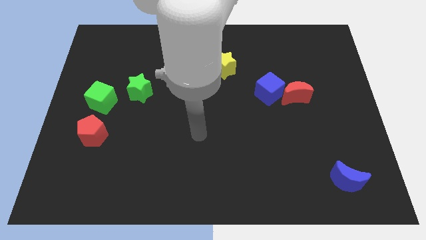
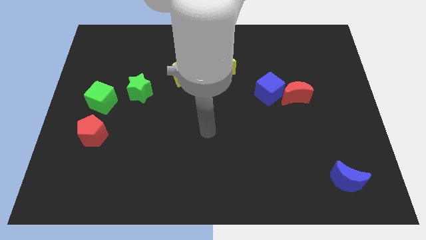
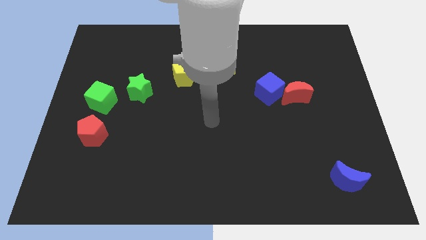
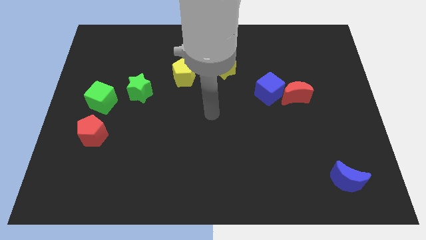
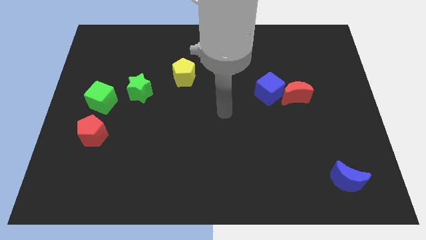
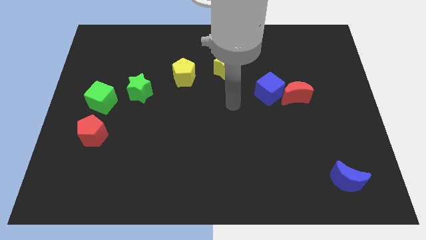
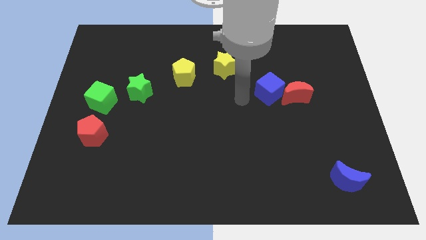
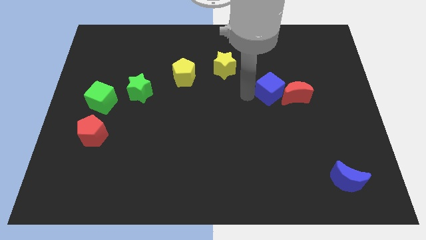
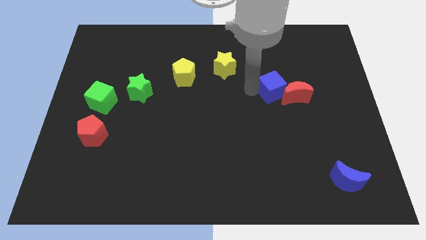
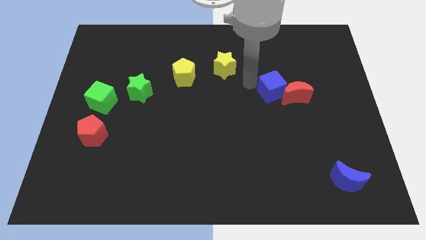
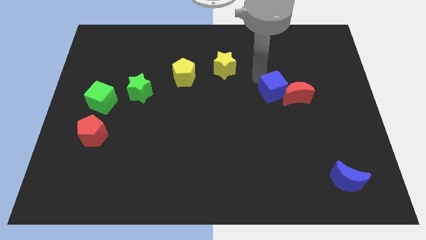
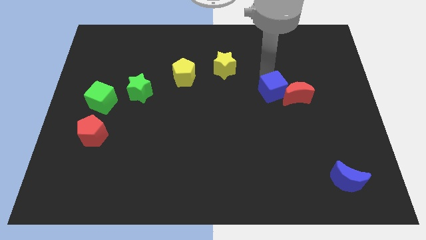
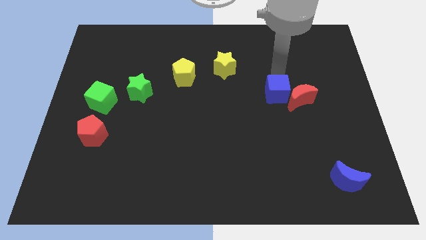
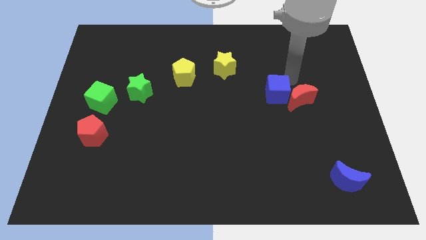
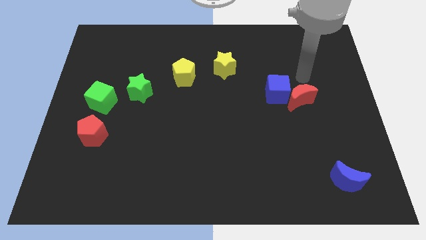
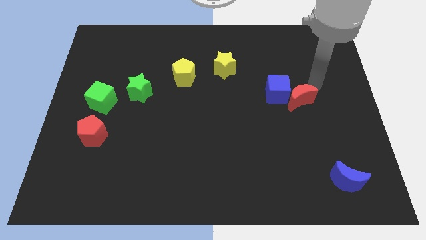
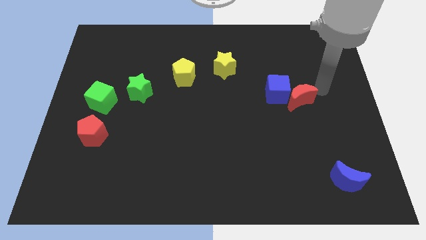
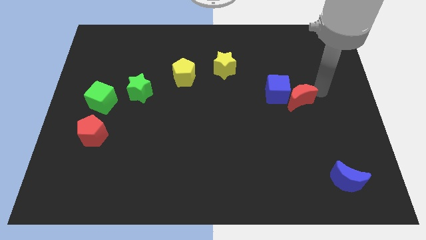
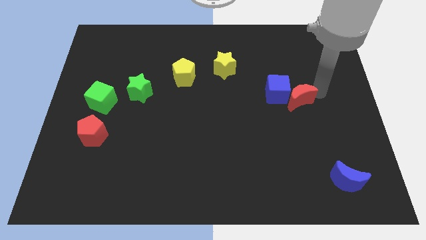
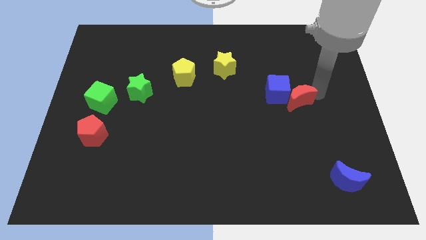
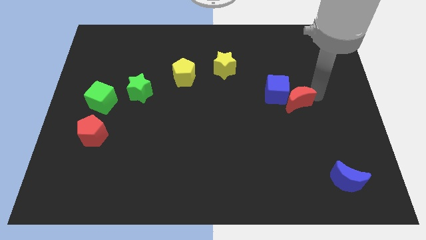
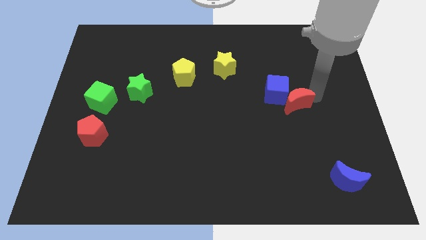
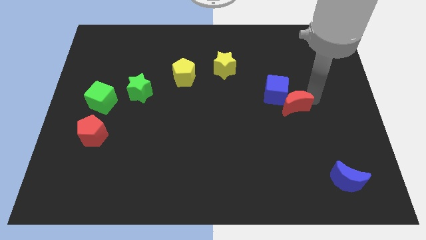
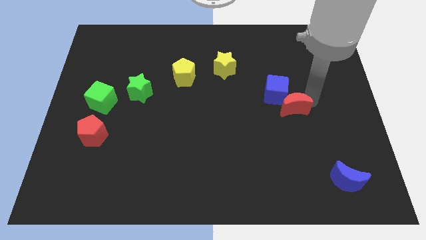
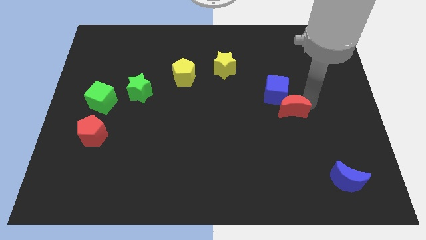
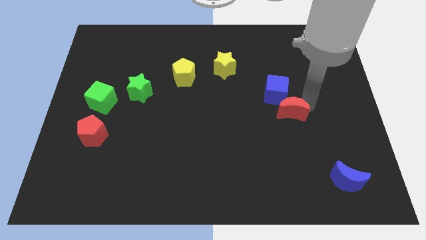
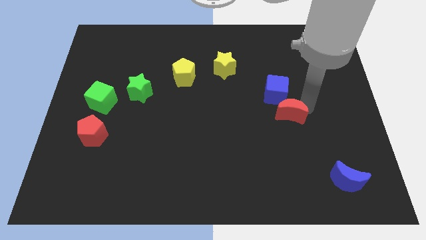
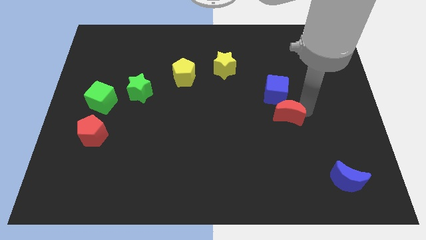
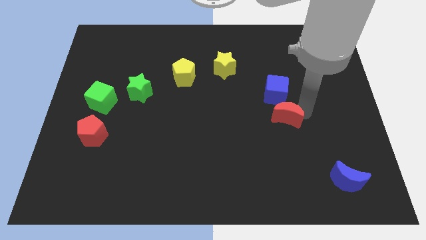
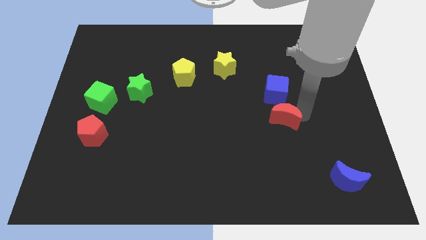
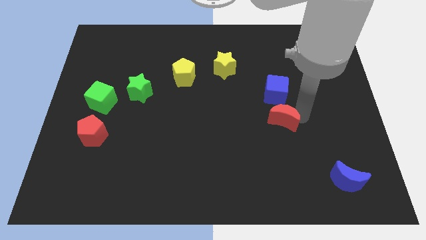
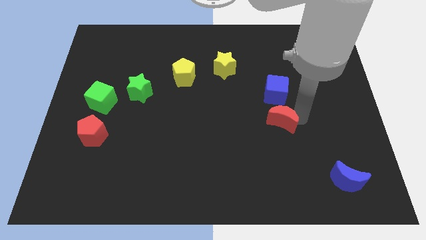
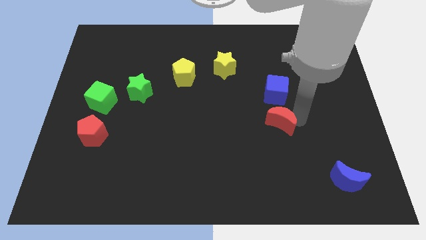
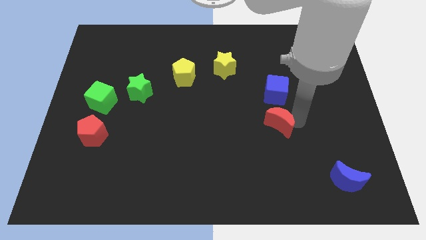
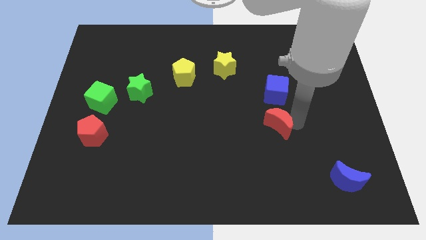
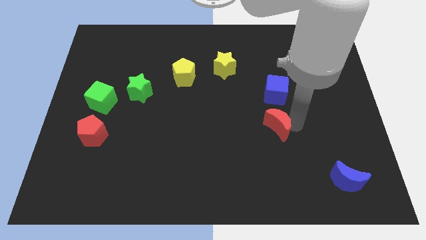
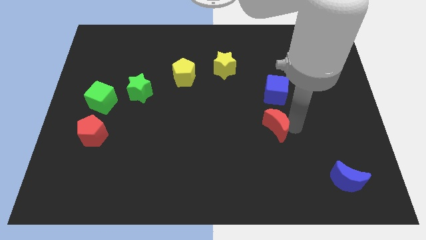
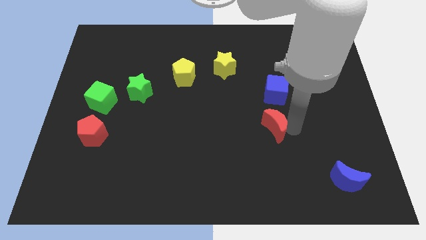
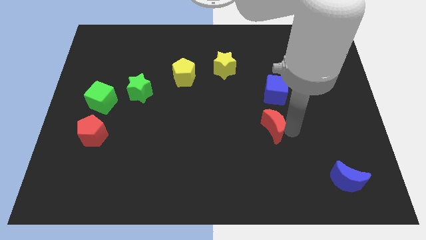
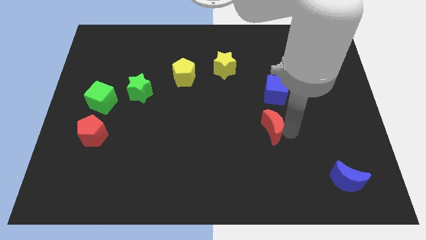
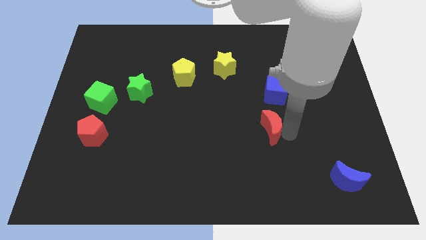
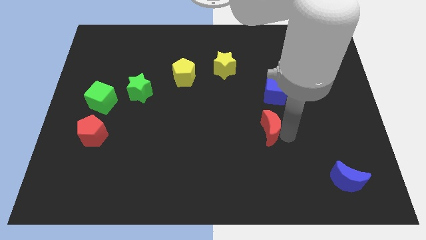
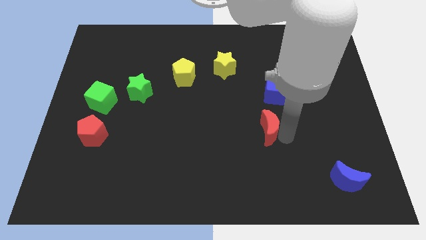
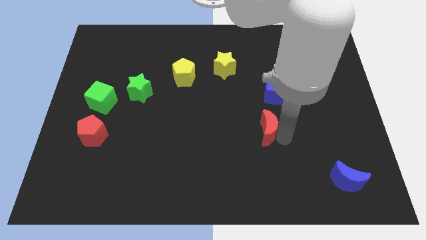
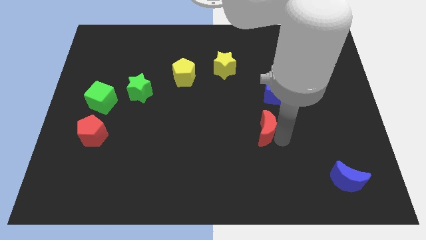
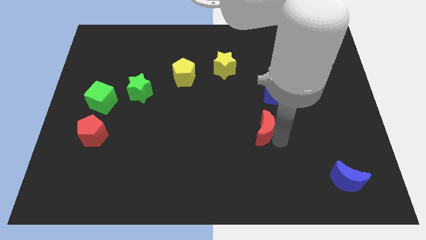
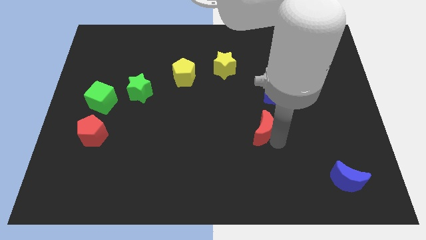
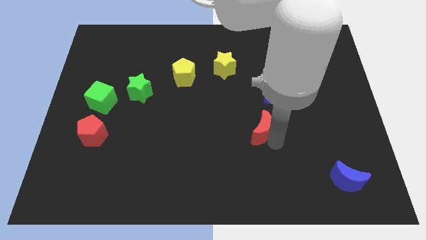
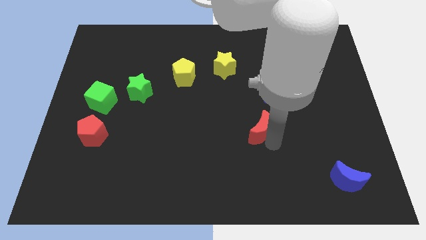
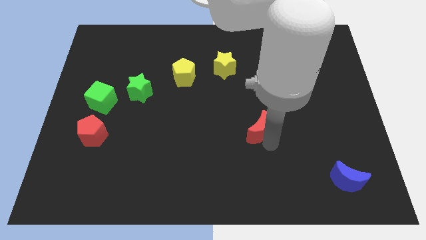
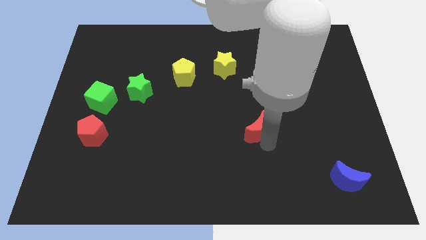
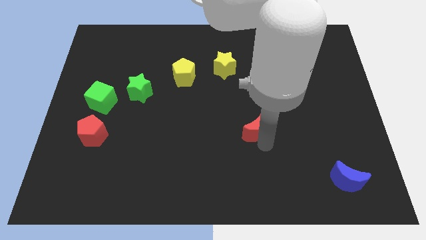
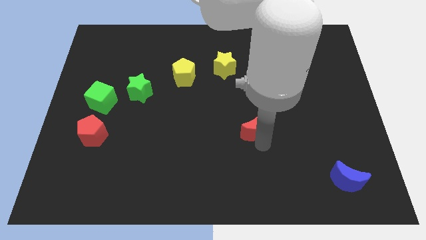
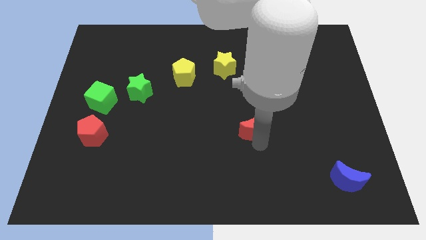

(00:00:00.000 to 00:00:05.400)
slide the red moon to the middle

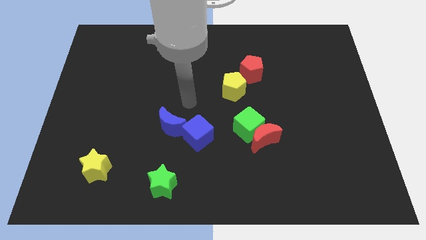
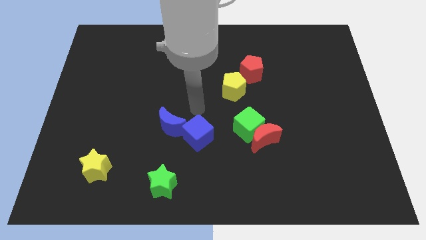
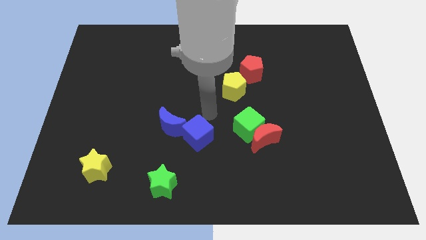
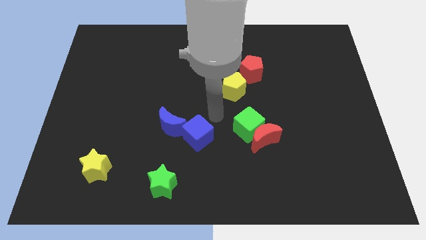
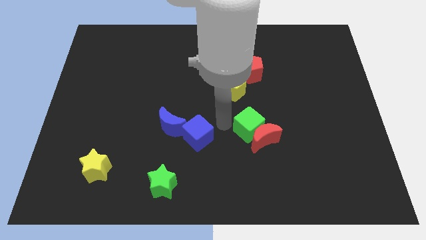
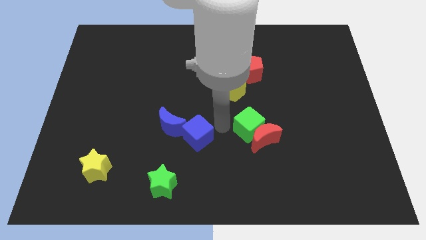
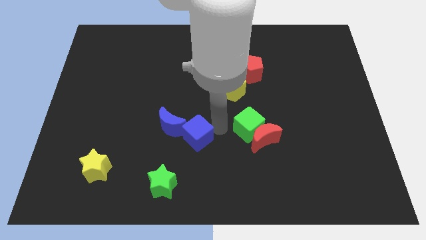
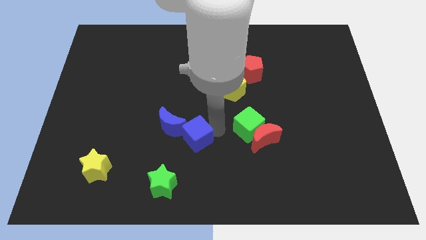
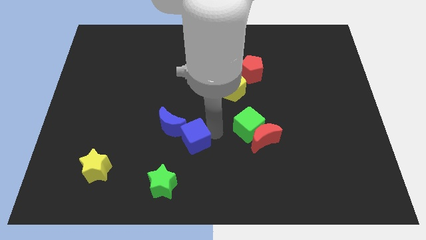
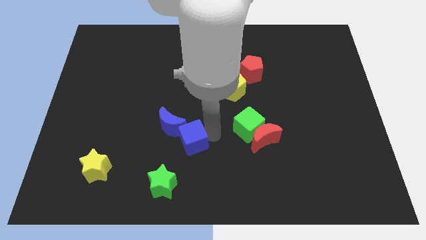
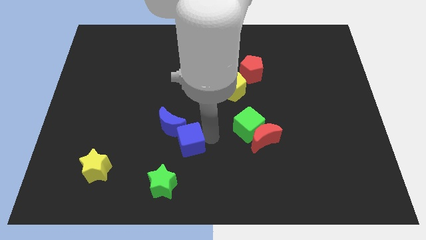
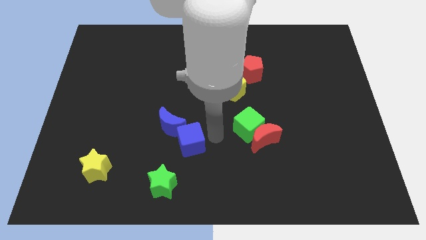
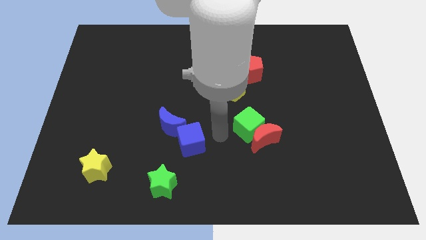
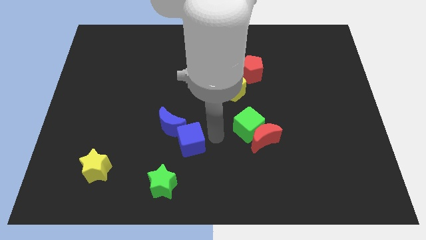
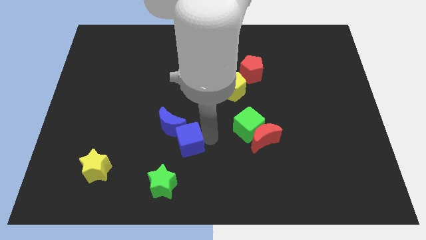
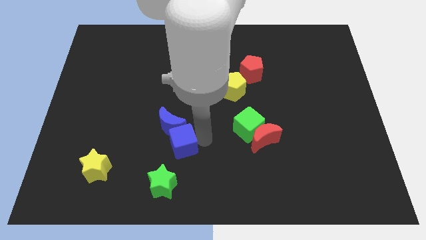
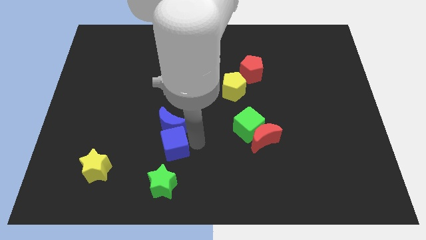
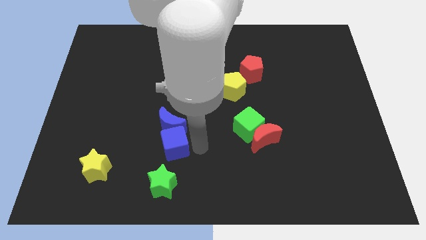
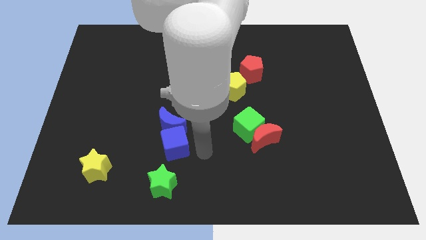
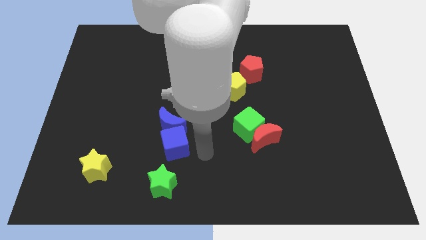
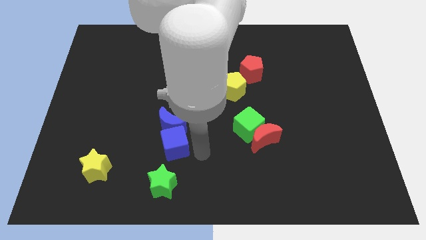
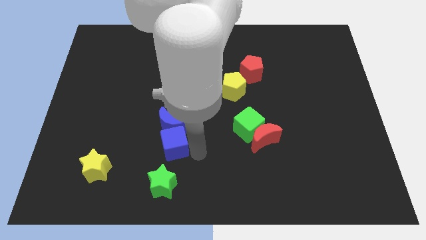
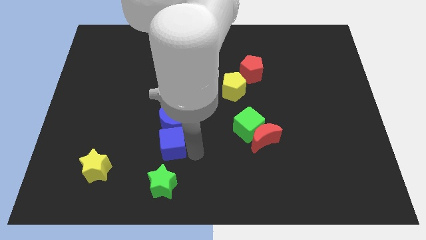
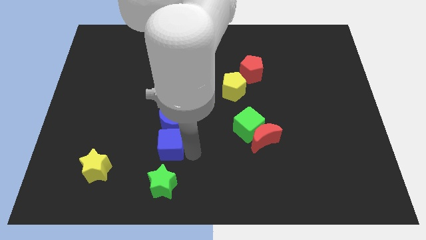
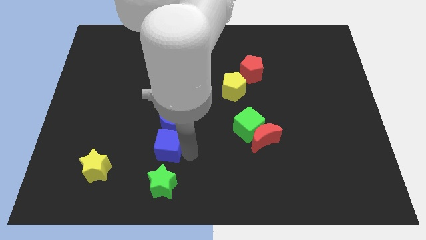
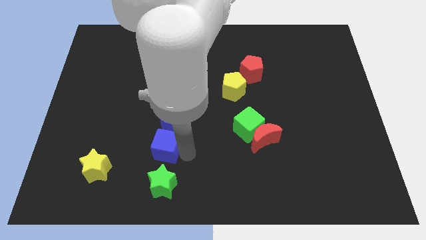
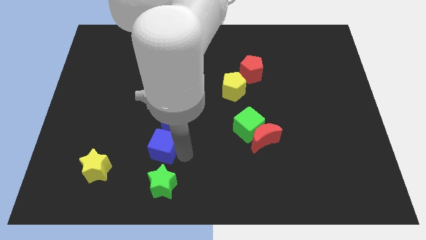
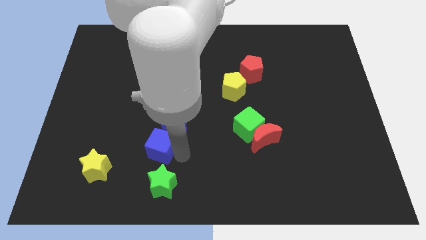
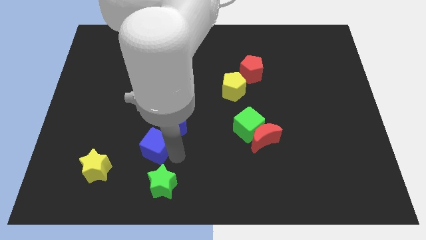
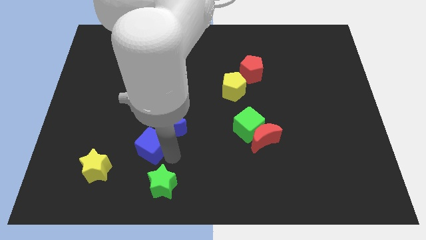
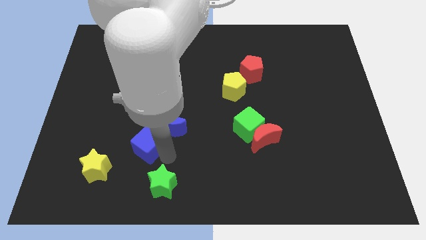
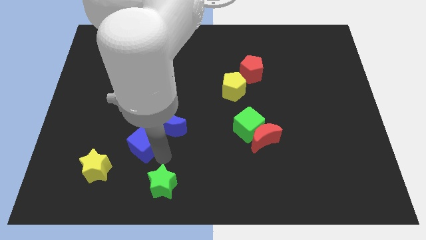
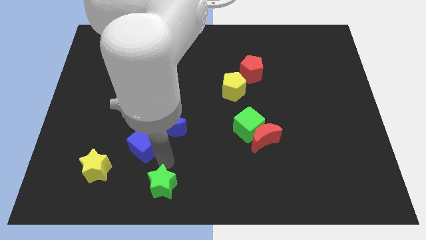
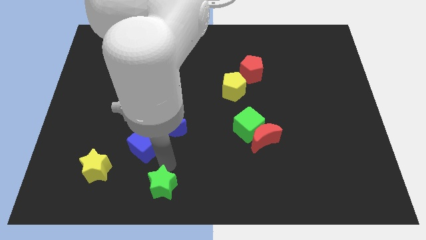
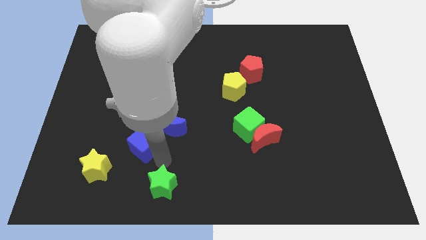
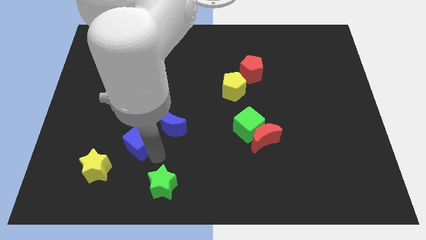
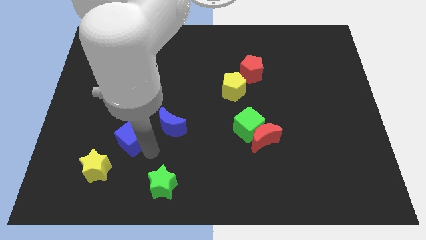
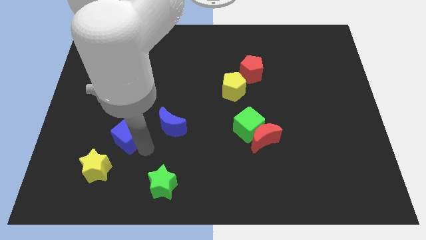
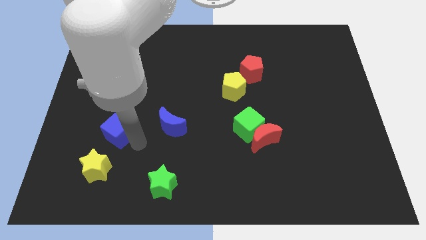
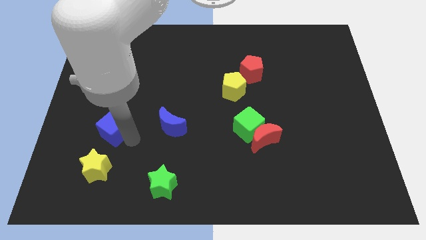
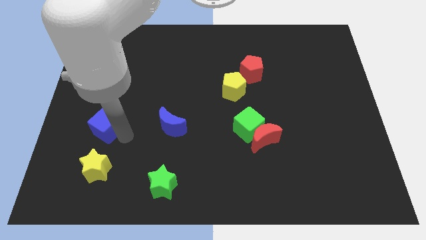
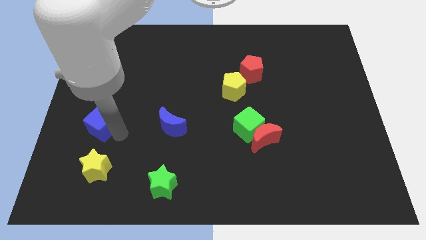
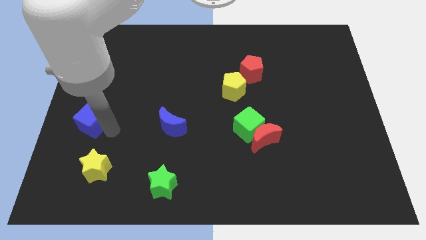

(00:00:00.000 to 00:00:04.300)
push the blue cube to the left side of the board
